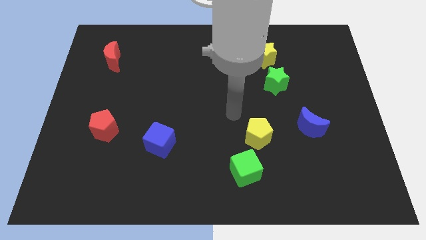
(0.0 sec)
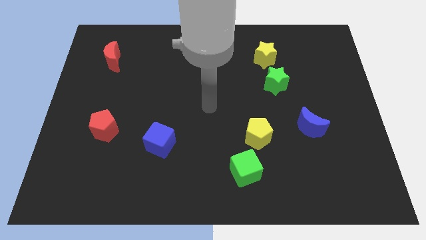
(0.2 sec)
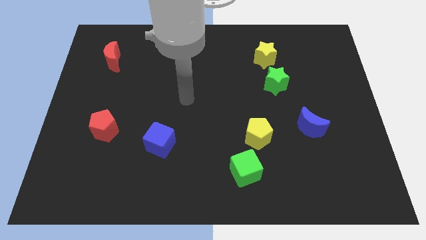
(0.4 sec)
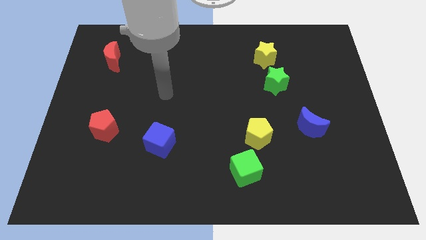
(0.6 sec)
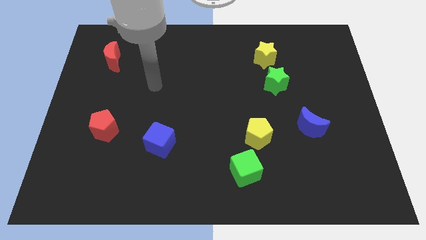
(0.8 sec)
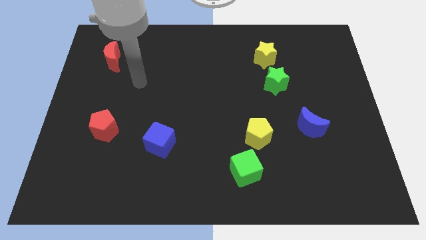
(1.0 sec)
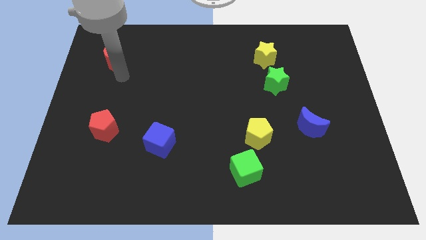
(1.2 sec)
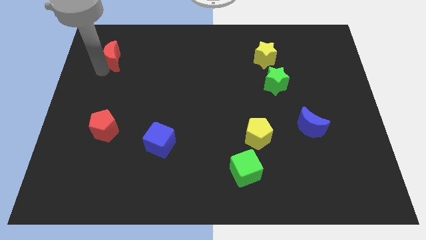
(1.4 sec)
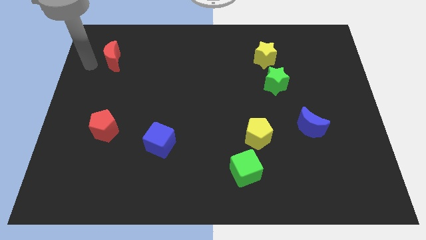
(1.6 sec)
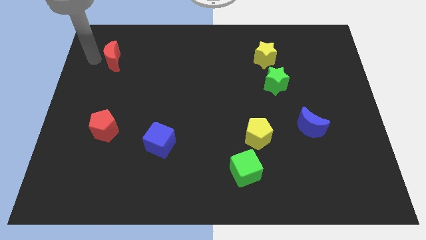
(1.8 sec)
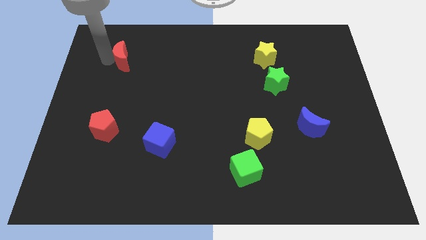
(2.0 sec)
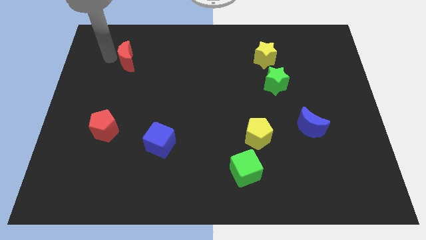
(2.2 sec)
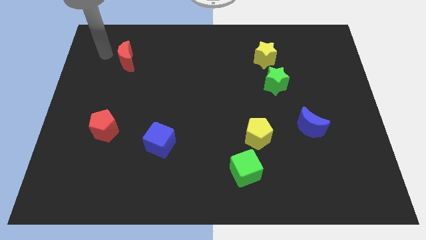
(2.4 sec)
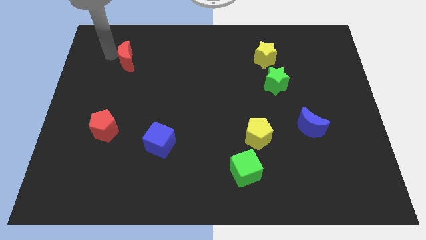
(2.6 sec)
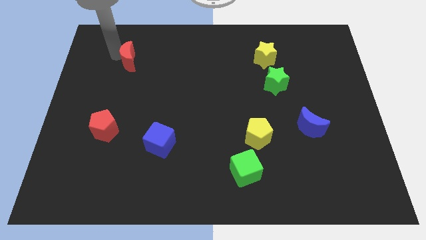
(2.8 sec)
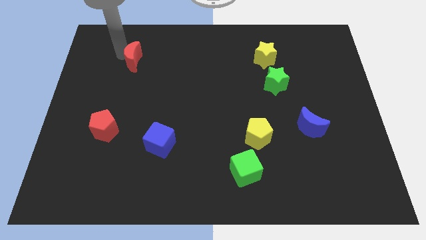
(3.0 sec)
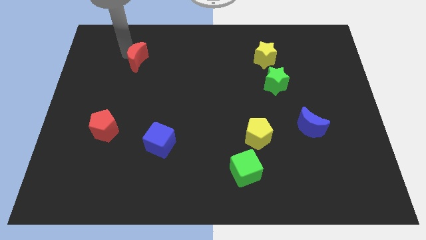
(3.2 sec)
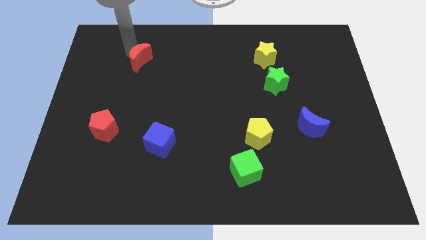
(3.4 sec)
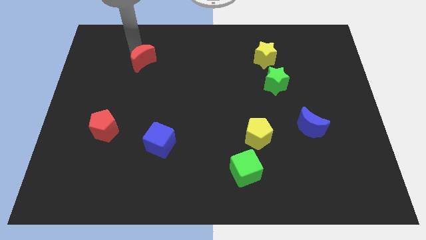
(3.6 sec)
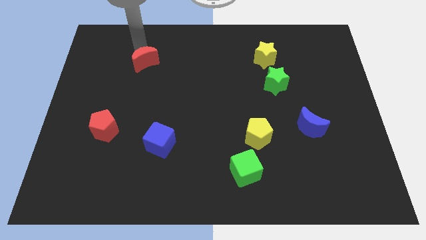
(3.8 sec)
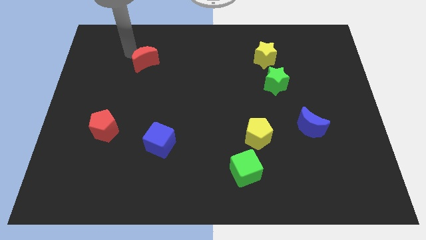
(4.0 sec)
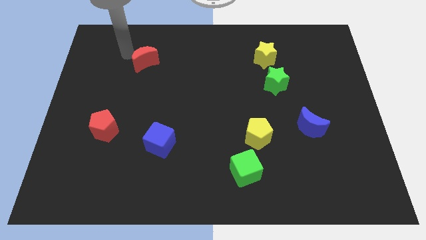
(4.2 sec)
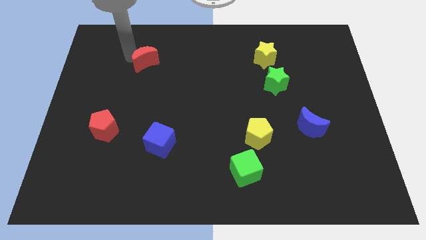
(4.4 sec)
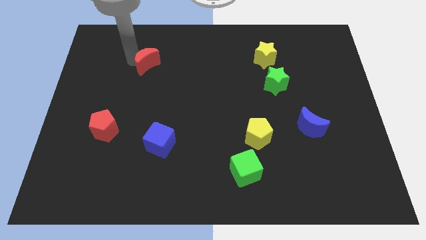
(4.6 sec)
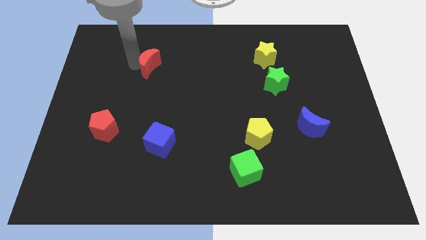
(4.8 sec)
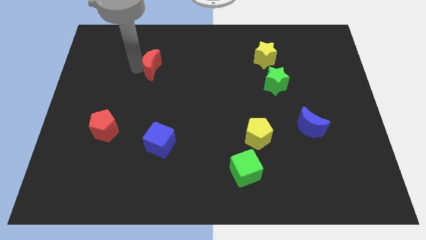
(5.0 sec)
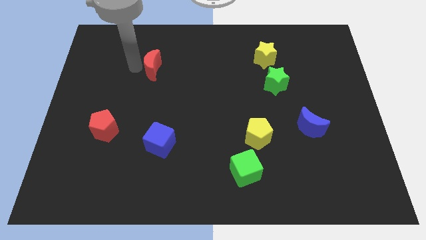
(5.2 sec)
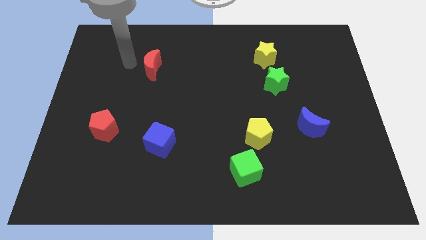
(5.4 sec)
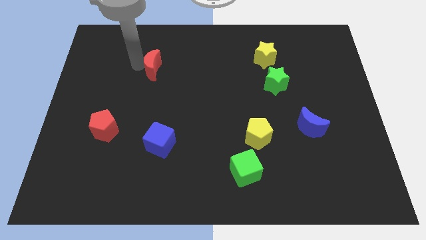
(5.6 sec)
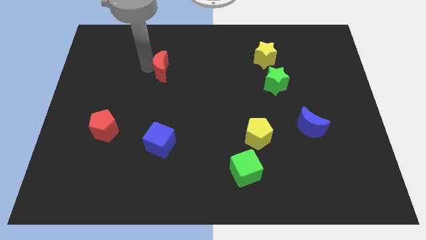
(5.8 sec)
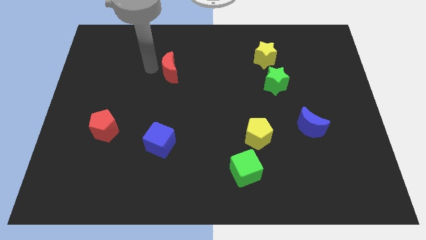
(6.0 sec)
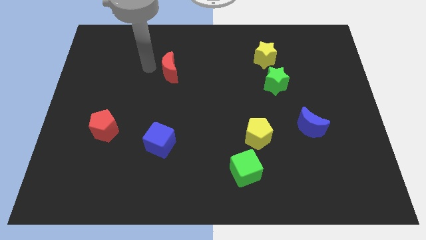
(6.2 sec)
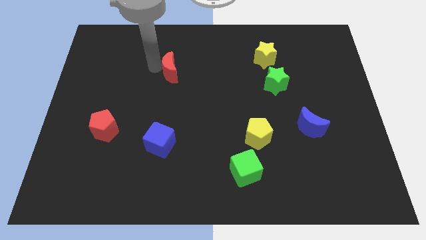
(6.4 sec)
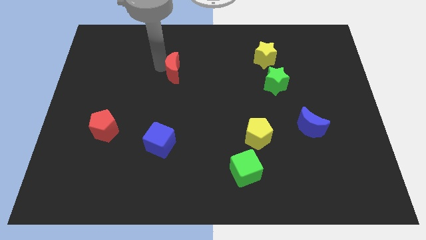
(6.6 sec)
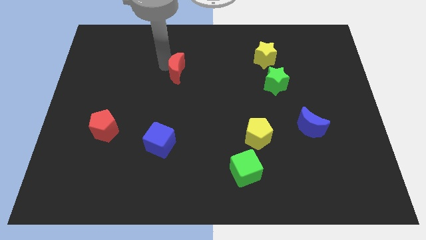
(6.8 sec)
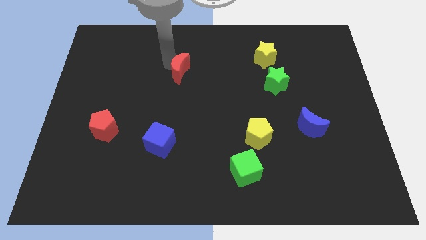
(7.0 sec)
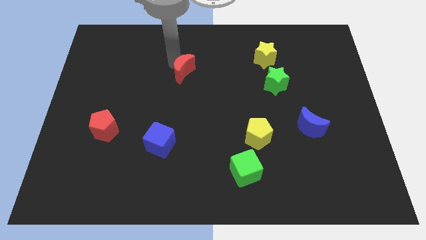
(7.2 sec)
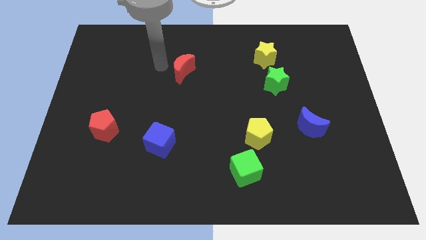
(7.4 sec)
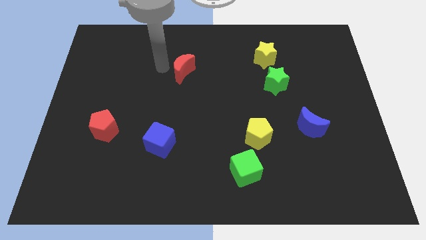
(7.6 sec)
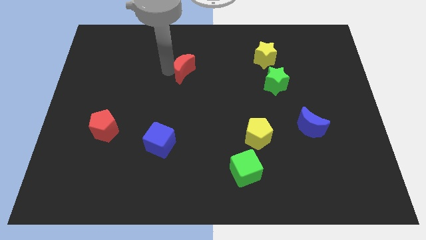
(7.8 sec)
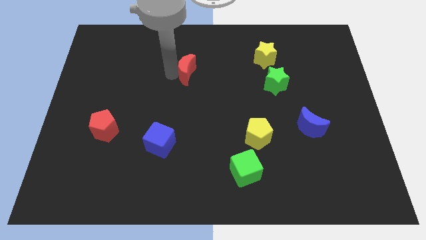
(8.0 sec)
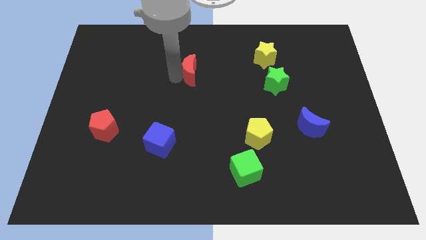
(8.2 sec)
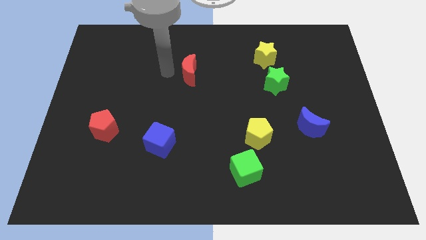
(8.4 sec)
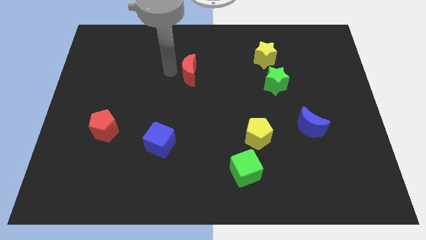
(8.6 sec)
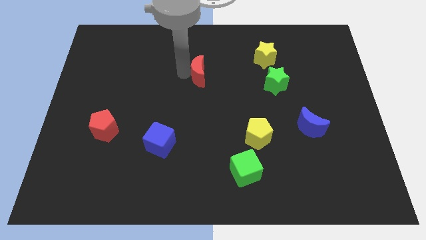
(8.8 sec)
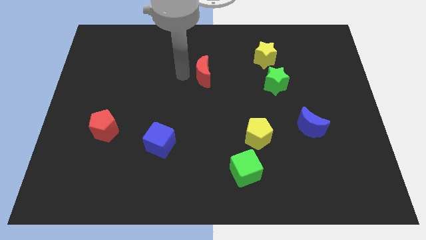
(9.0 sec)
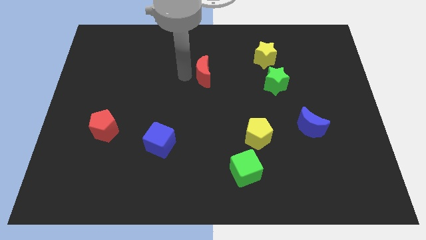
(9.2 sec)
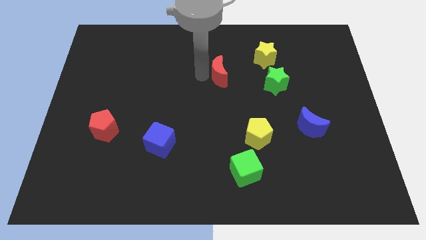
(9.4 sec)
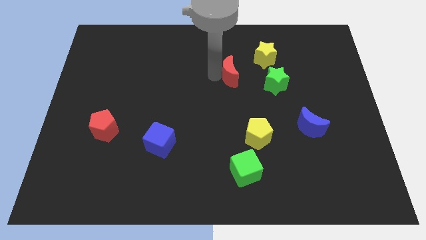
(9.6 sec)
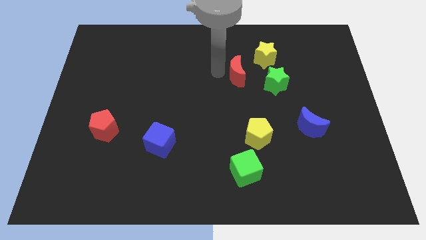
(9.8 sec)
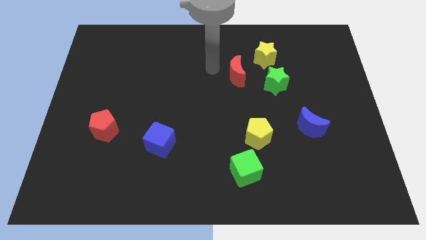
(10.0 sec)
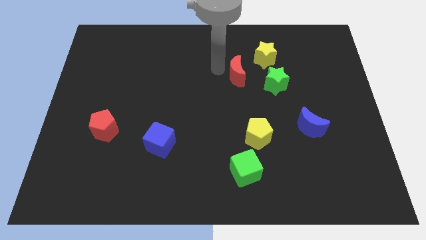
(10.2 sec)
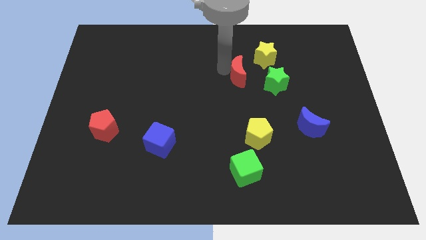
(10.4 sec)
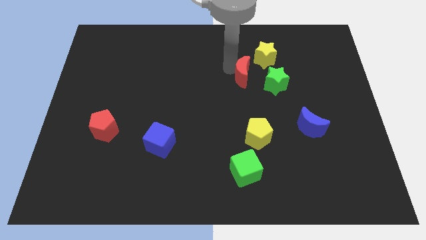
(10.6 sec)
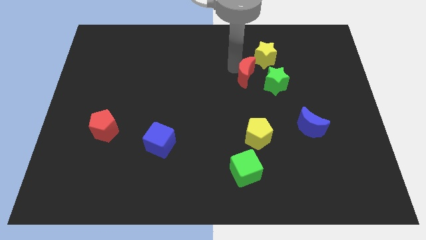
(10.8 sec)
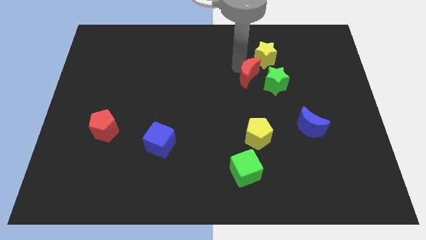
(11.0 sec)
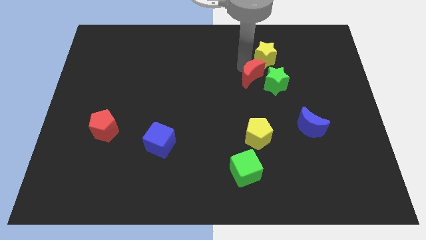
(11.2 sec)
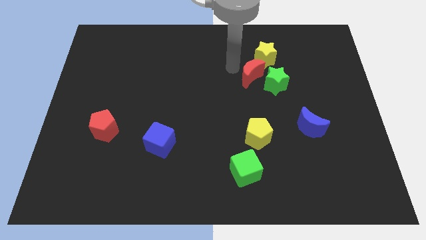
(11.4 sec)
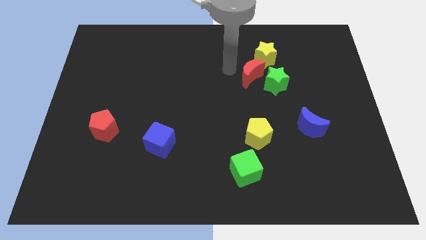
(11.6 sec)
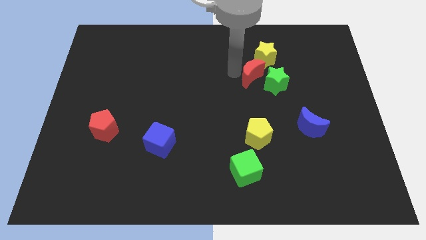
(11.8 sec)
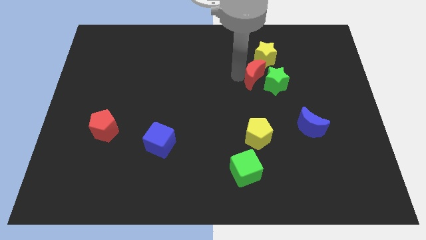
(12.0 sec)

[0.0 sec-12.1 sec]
push the red moon to the green star
